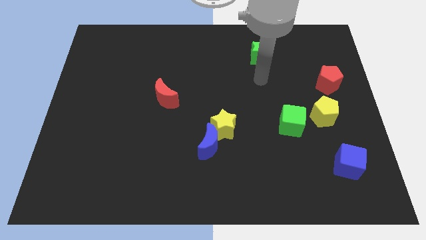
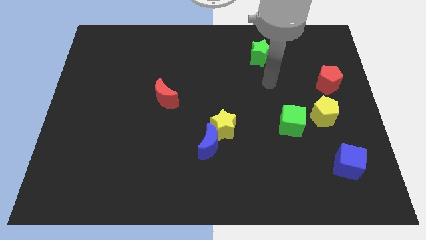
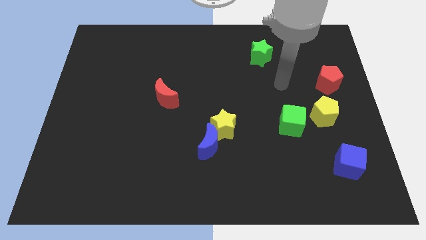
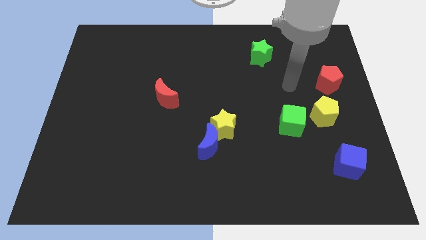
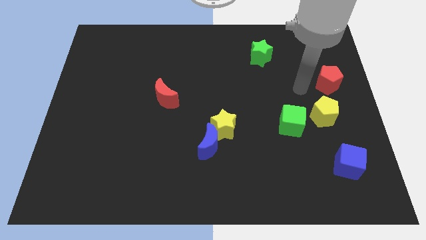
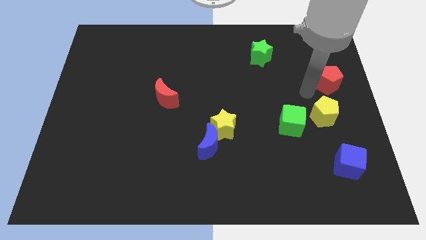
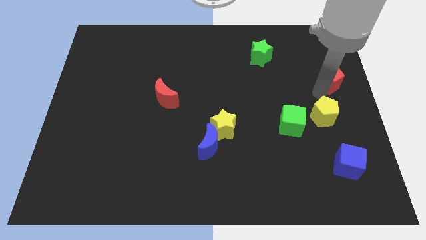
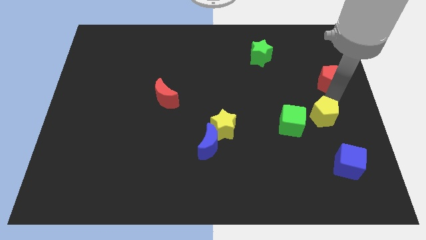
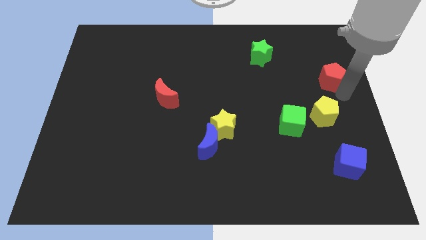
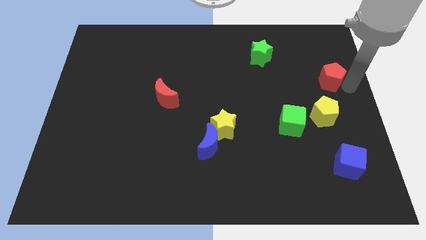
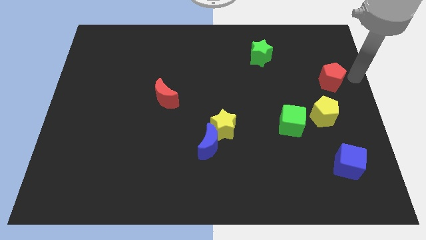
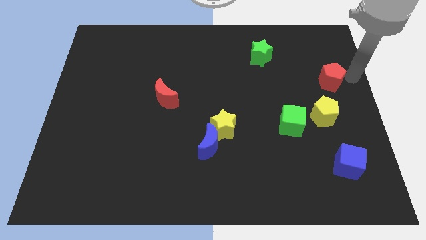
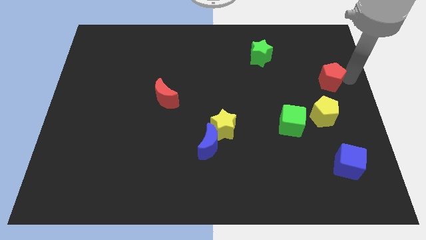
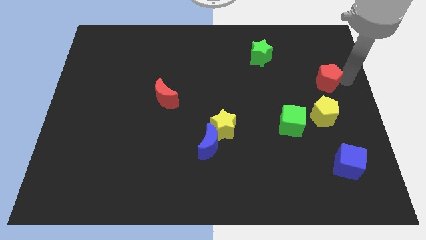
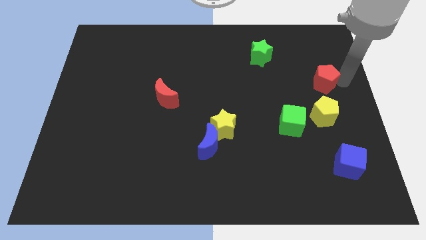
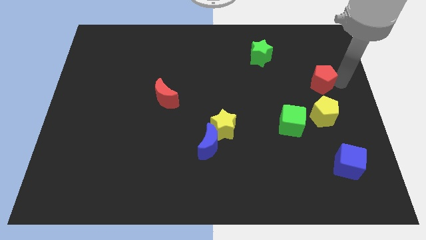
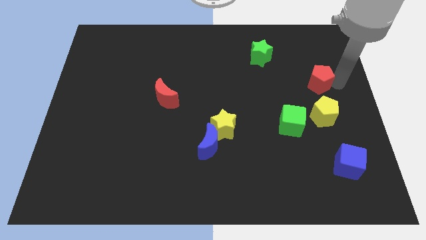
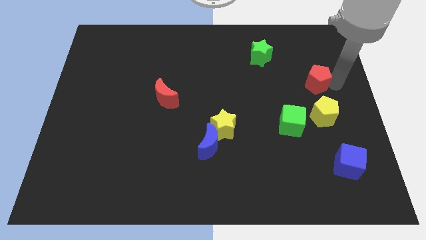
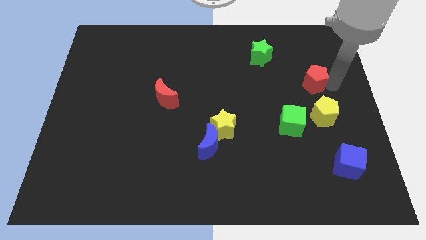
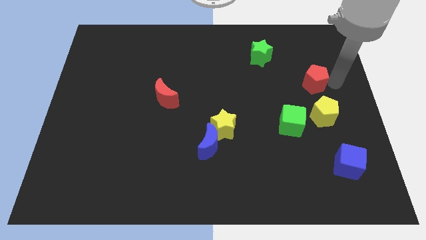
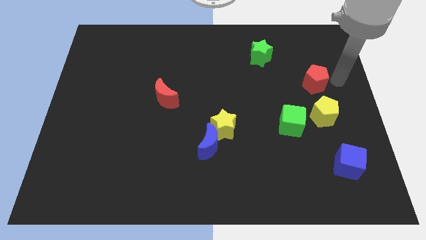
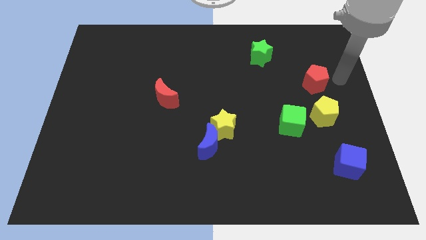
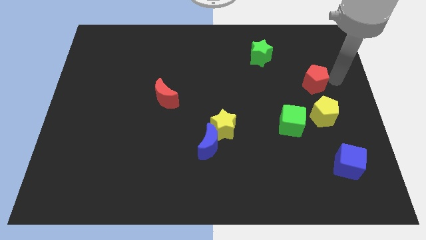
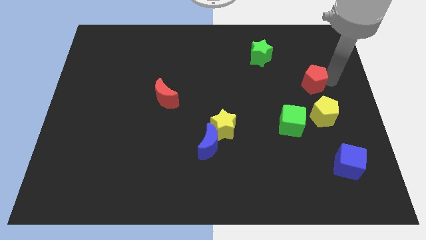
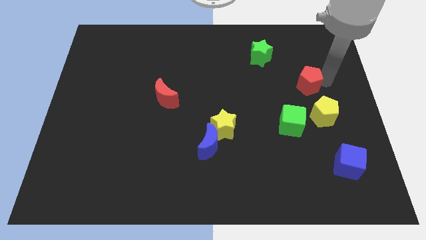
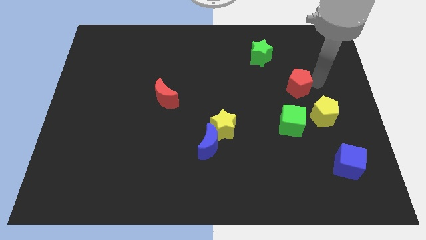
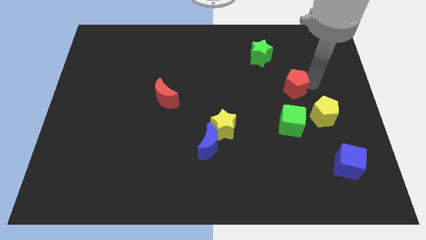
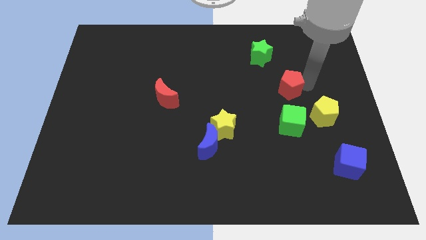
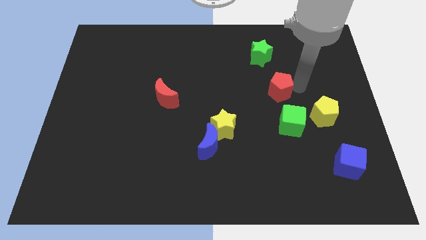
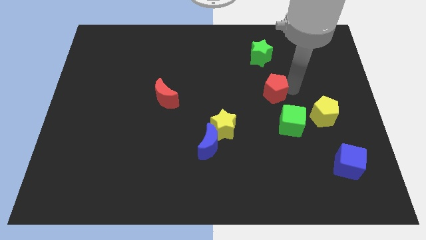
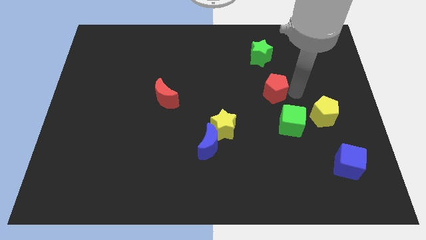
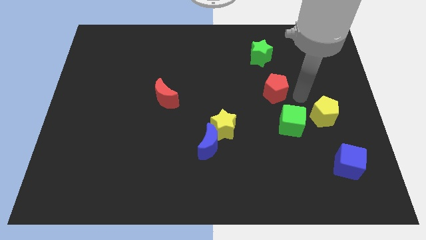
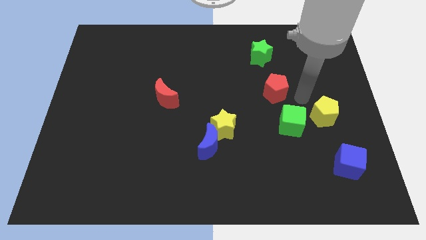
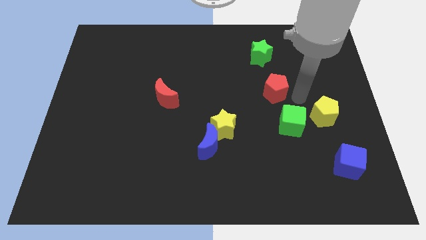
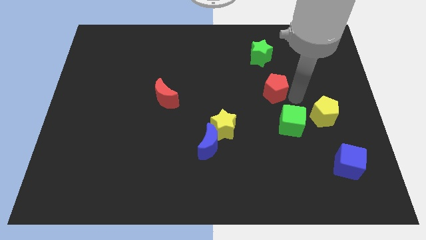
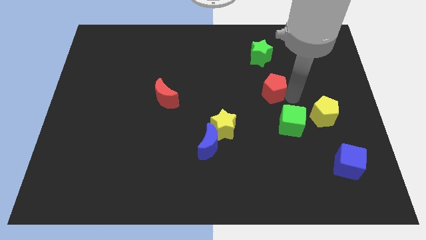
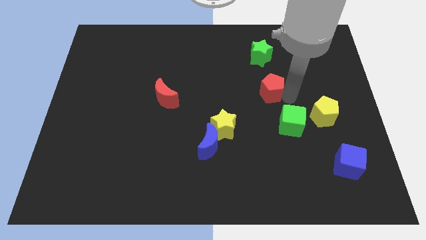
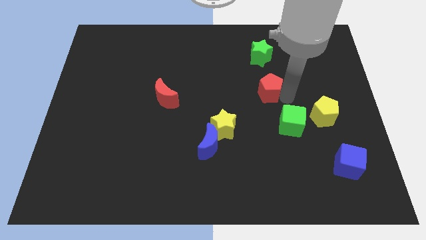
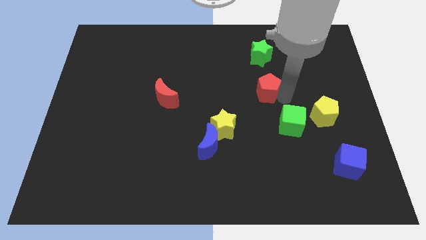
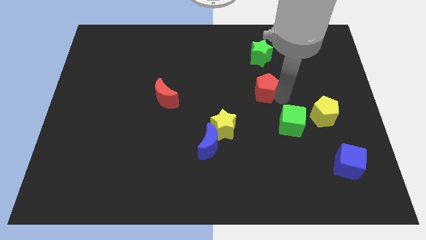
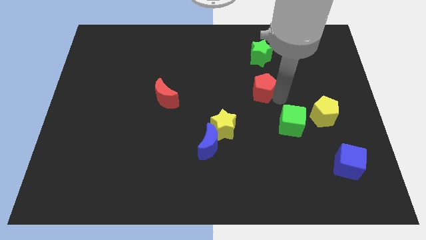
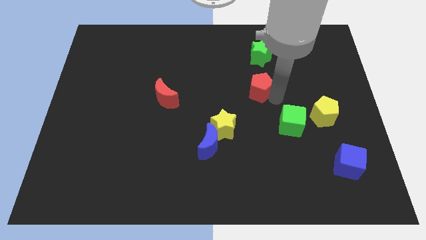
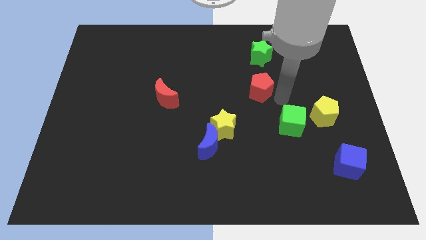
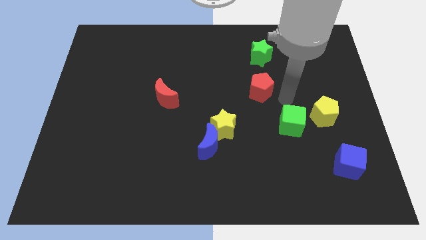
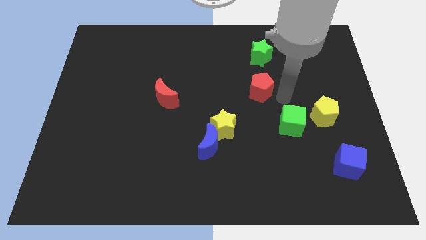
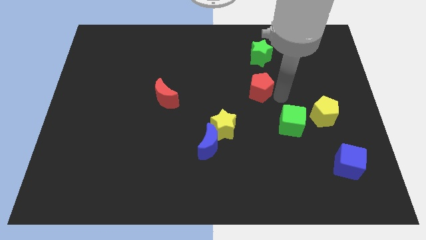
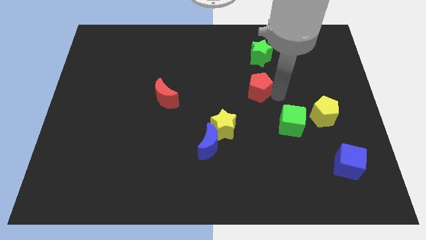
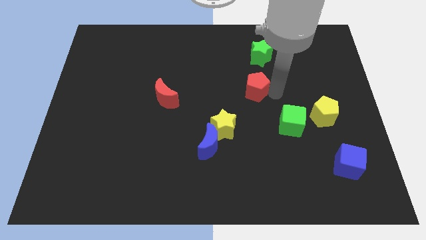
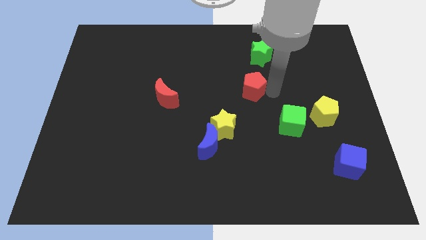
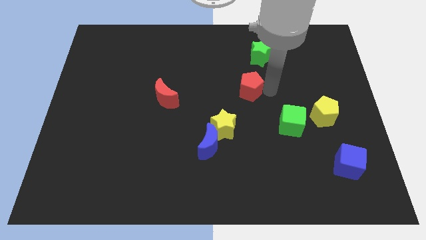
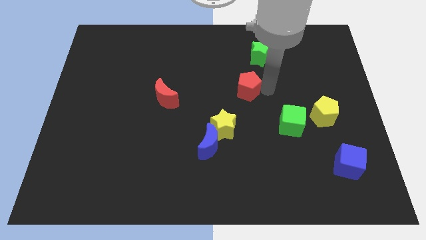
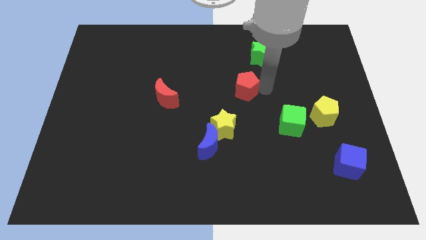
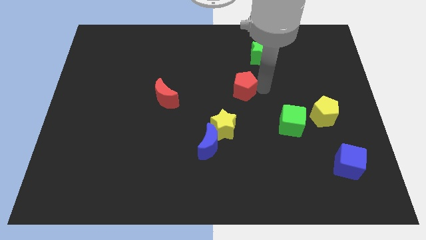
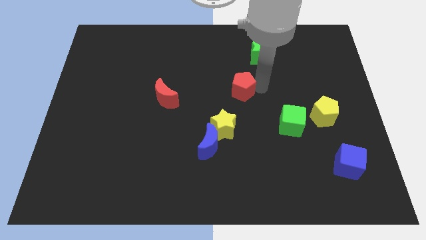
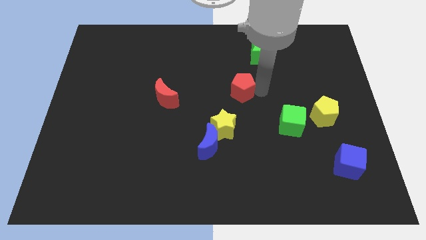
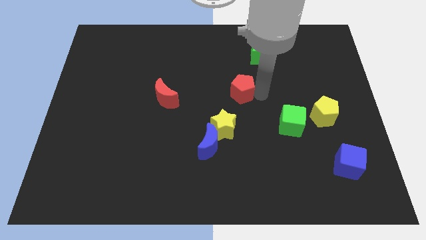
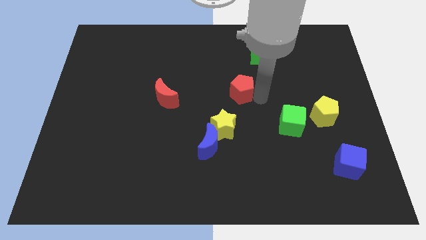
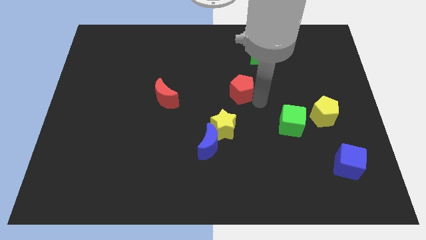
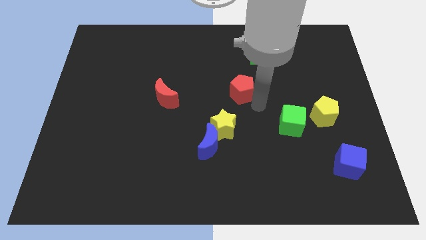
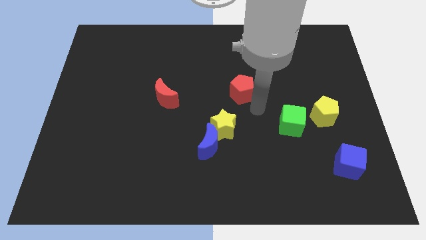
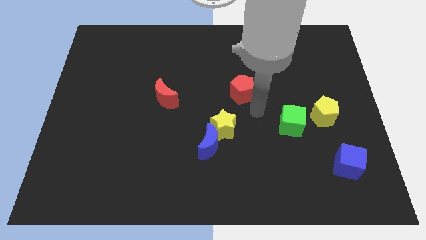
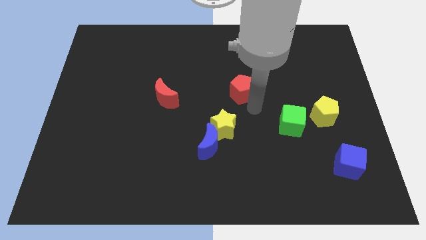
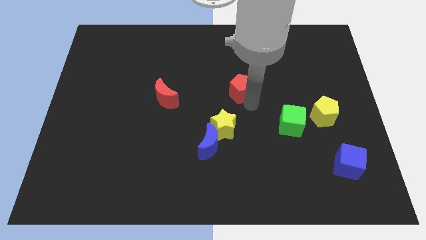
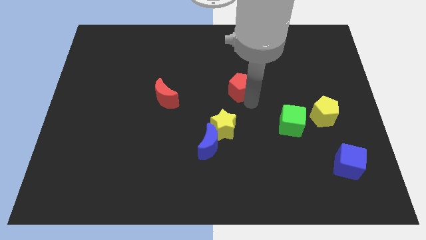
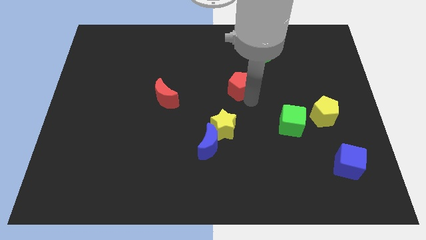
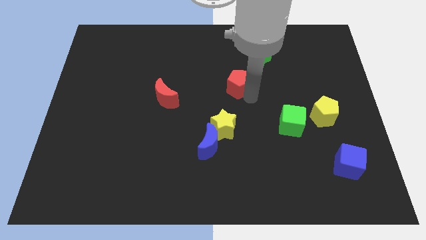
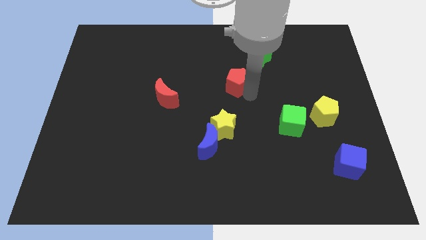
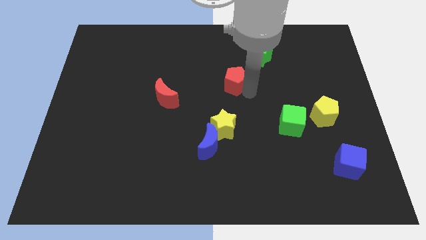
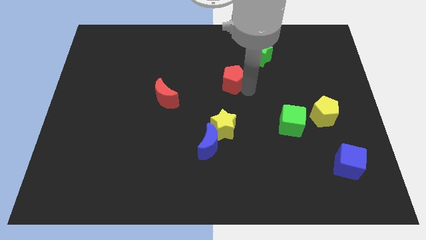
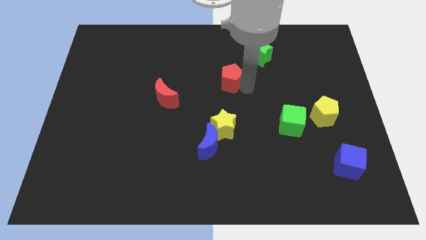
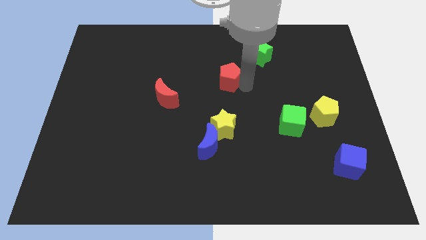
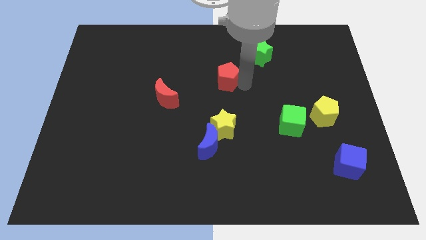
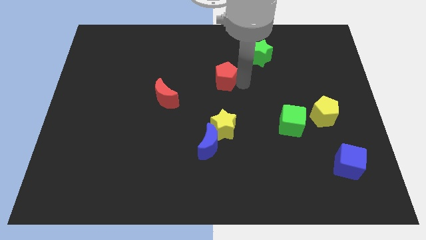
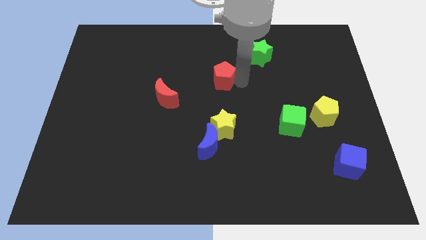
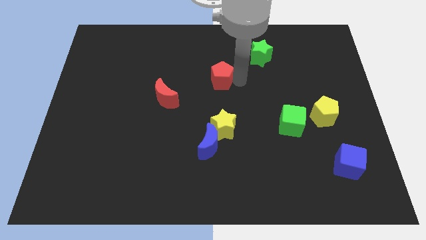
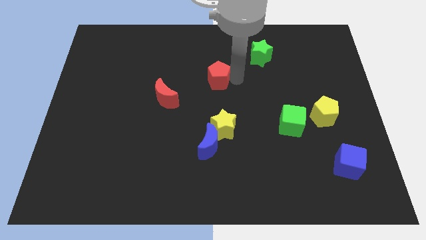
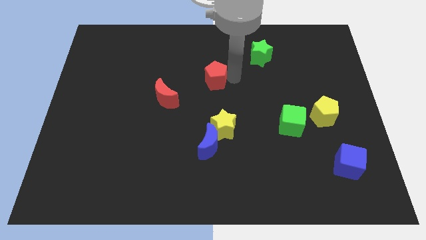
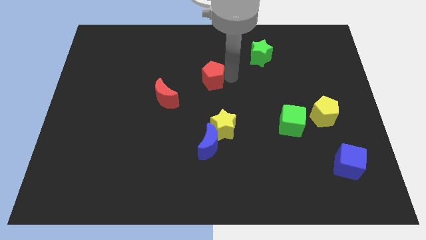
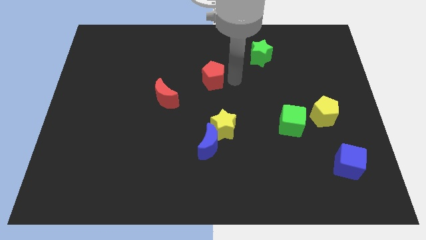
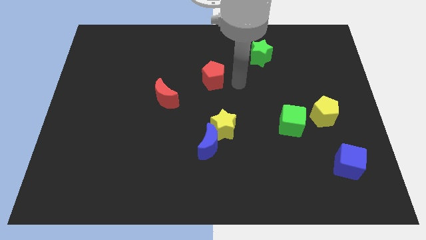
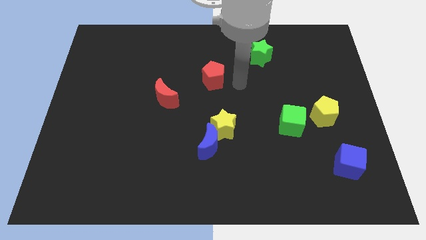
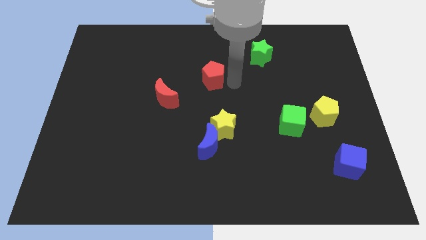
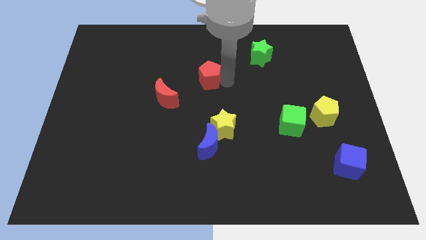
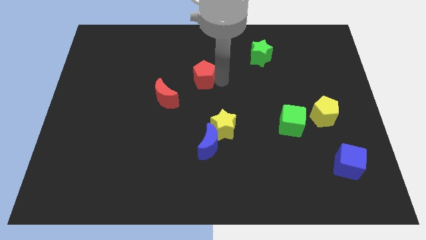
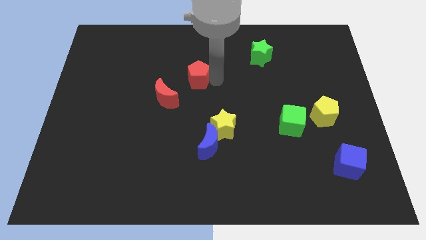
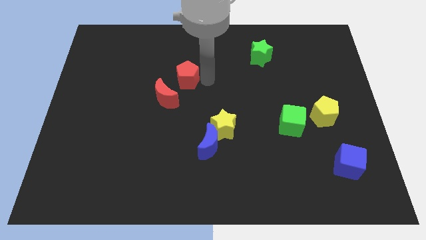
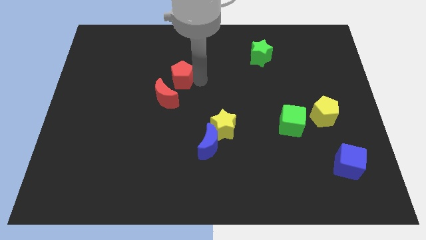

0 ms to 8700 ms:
push the red pentagon above the red moon
